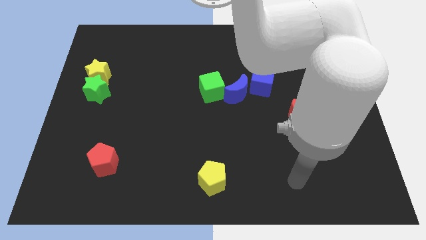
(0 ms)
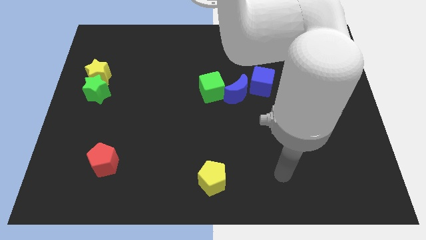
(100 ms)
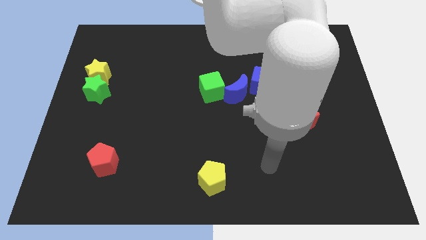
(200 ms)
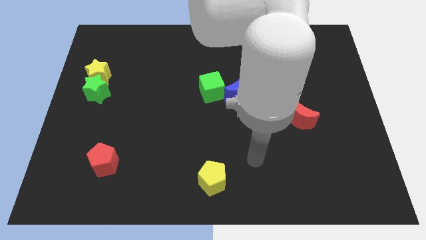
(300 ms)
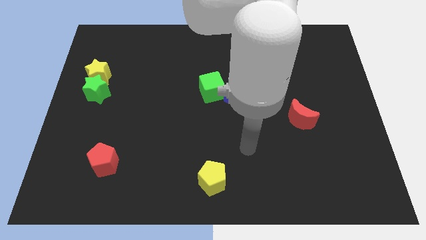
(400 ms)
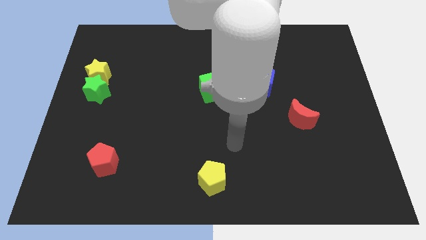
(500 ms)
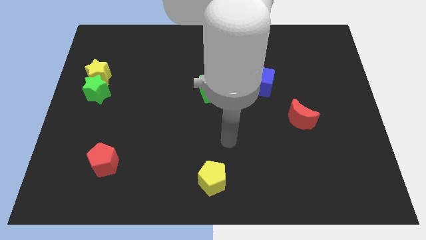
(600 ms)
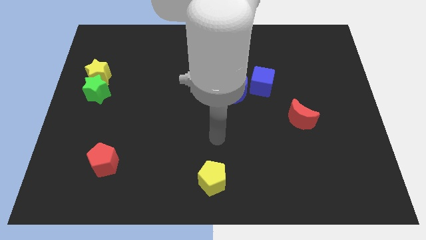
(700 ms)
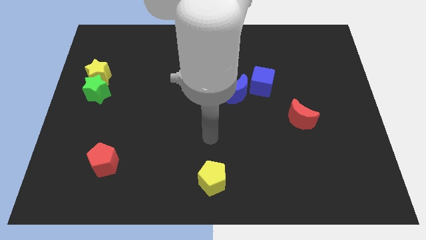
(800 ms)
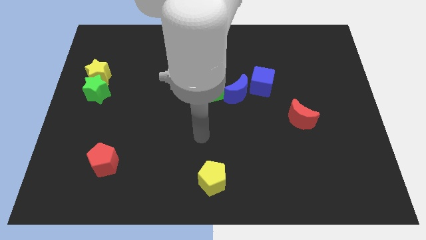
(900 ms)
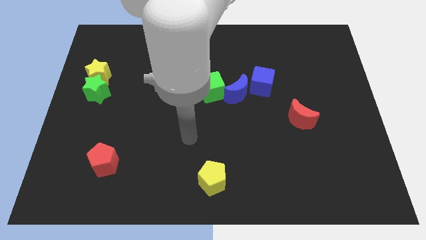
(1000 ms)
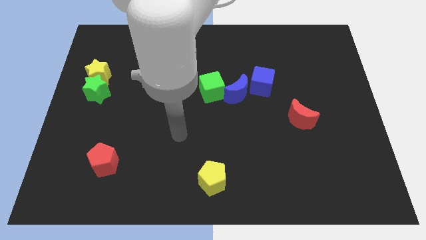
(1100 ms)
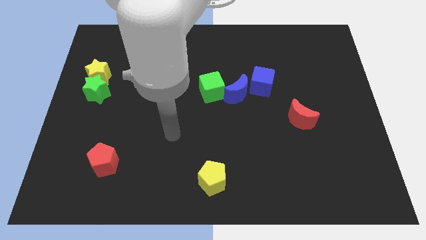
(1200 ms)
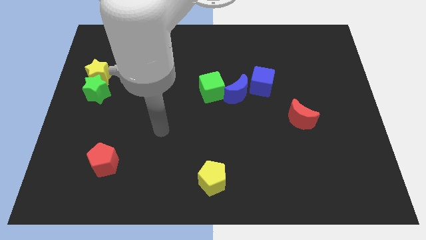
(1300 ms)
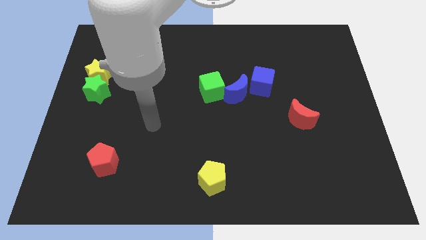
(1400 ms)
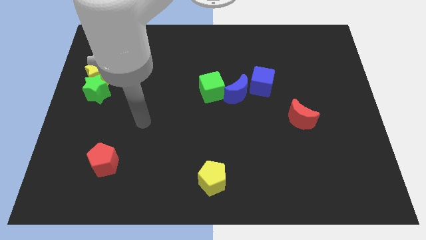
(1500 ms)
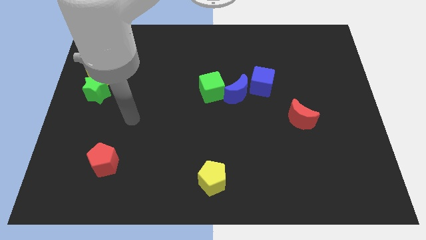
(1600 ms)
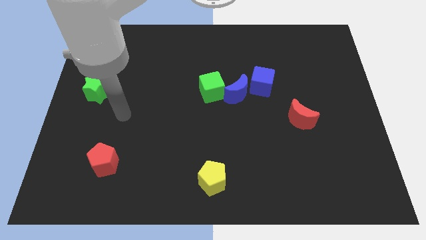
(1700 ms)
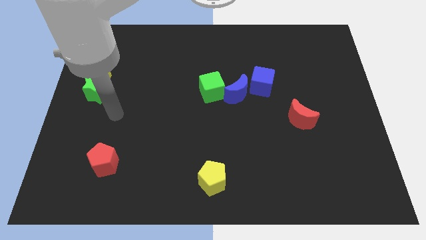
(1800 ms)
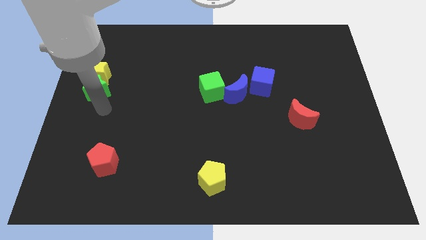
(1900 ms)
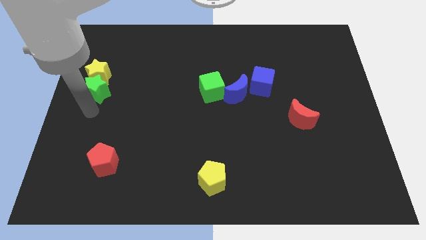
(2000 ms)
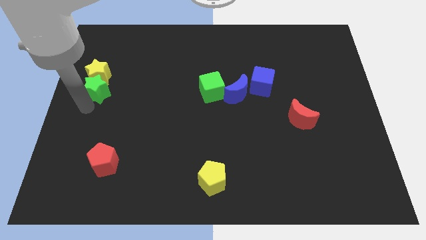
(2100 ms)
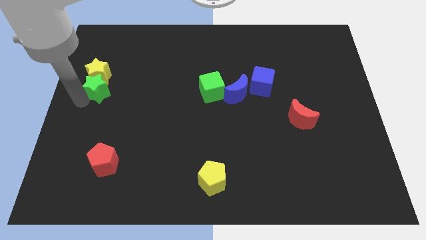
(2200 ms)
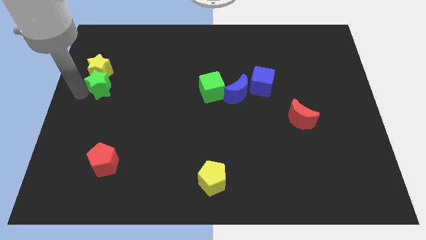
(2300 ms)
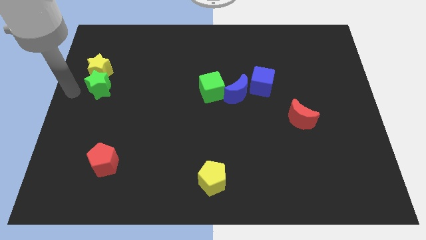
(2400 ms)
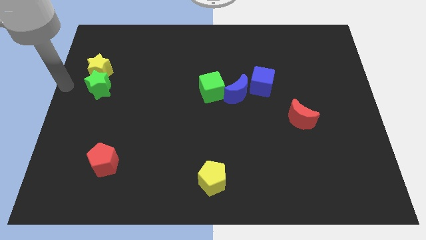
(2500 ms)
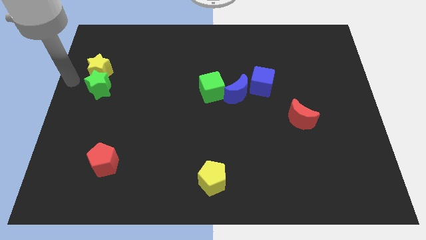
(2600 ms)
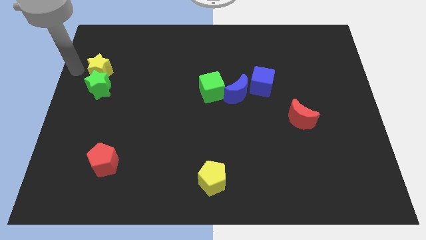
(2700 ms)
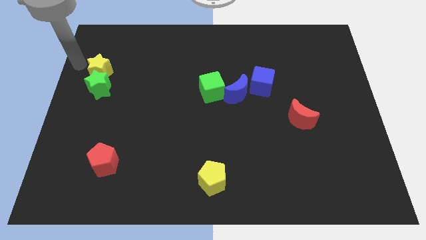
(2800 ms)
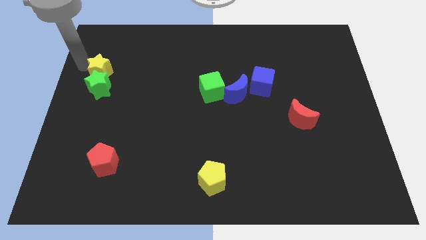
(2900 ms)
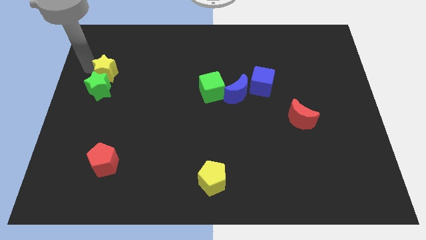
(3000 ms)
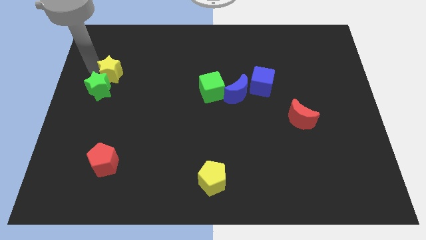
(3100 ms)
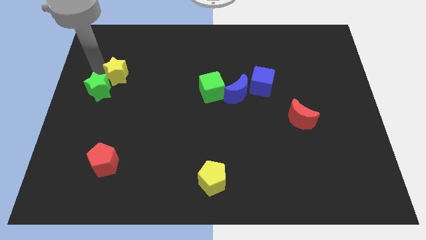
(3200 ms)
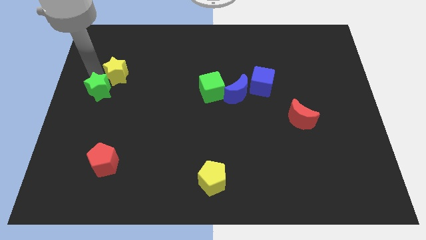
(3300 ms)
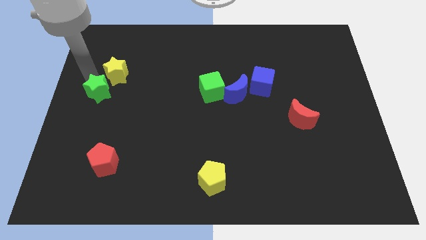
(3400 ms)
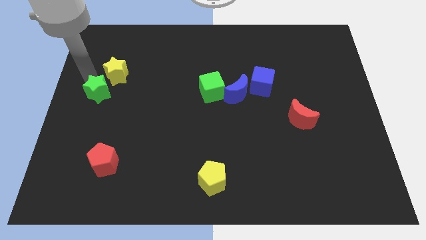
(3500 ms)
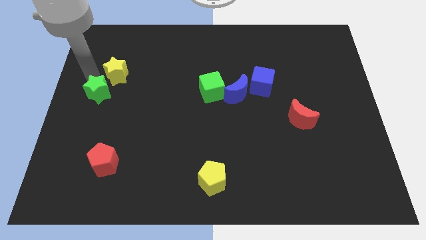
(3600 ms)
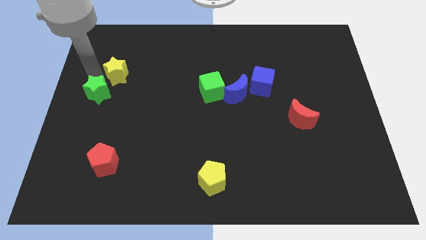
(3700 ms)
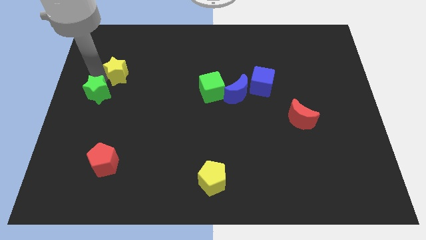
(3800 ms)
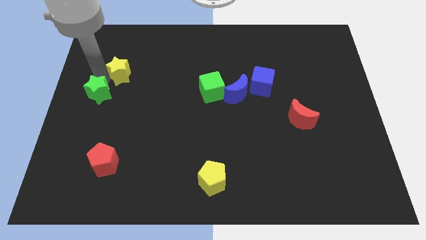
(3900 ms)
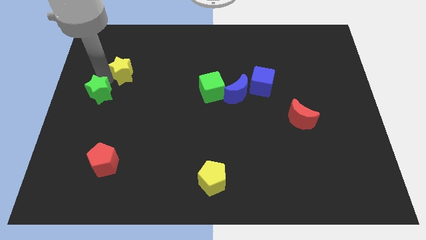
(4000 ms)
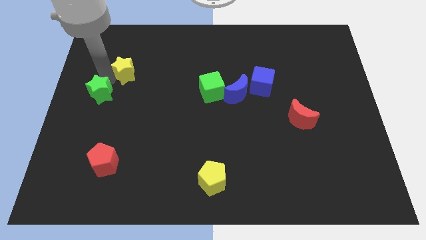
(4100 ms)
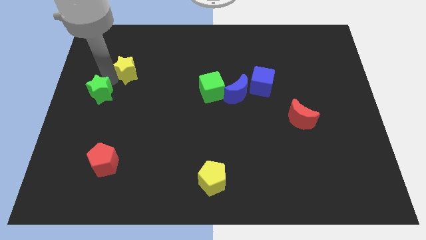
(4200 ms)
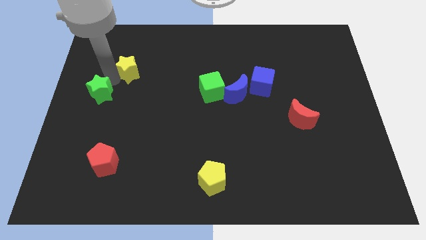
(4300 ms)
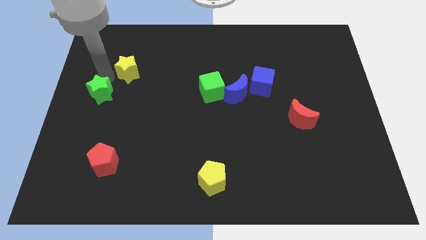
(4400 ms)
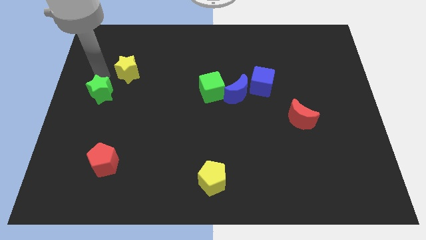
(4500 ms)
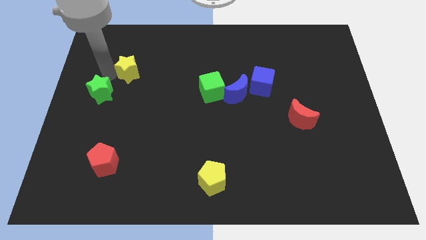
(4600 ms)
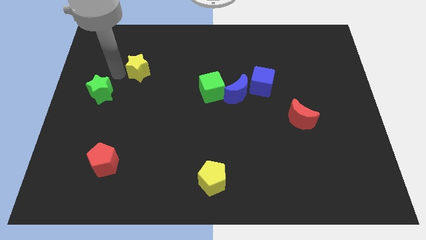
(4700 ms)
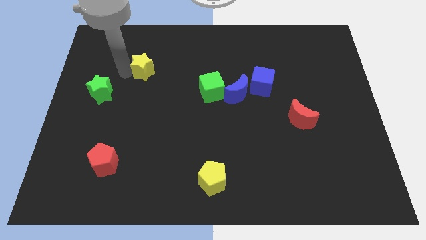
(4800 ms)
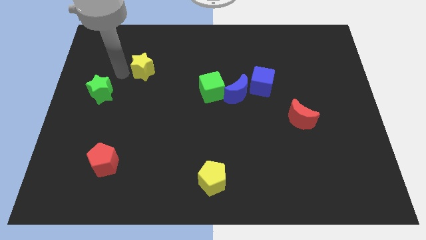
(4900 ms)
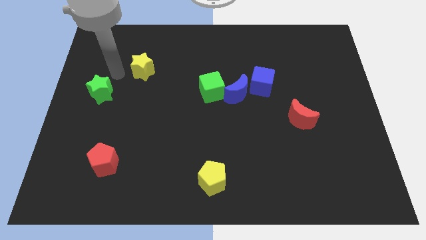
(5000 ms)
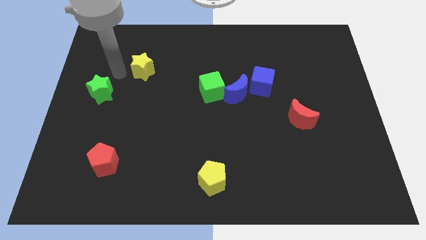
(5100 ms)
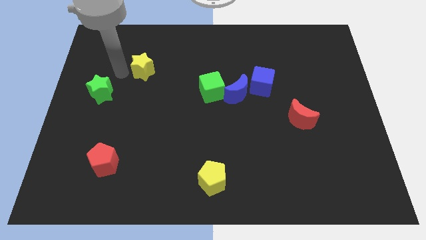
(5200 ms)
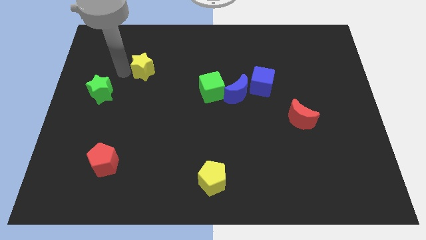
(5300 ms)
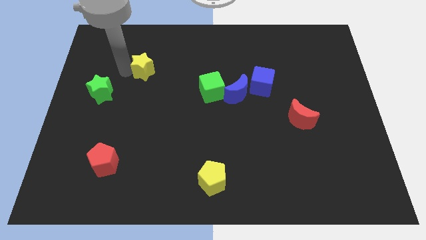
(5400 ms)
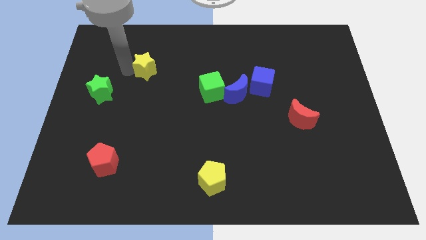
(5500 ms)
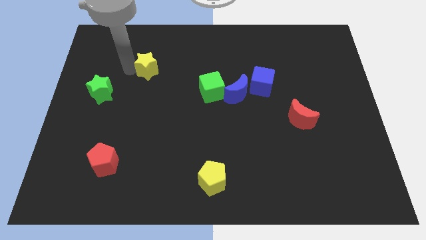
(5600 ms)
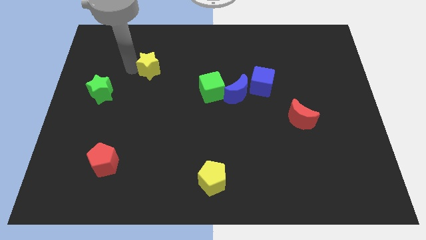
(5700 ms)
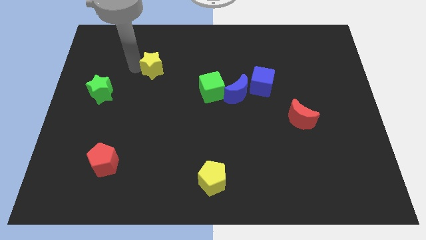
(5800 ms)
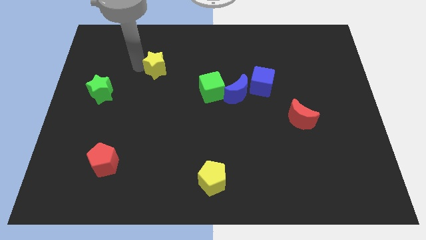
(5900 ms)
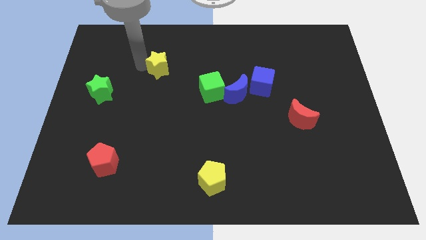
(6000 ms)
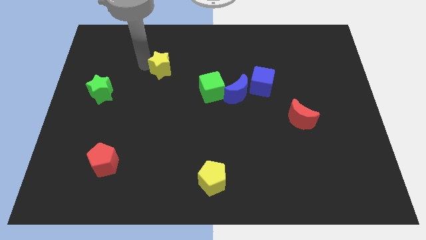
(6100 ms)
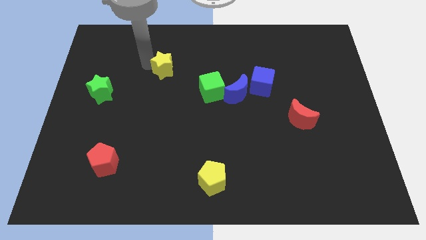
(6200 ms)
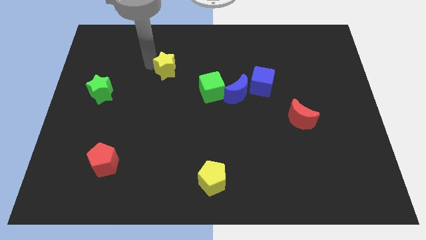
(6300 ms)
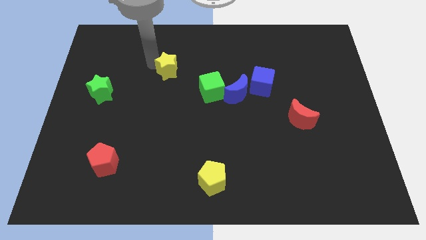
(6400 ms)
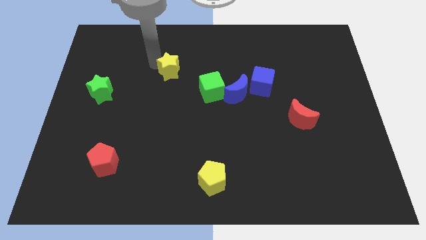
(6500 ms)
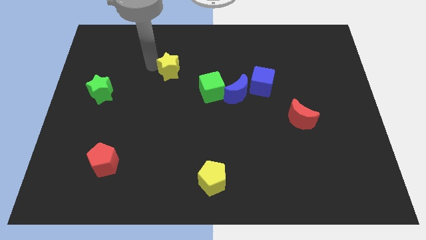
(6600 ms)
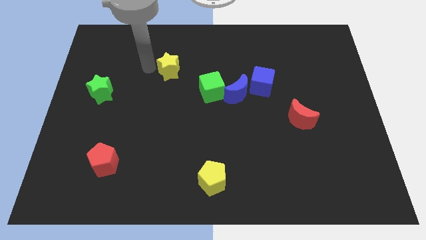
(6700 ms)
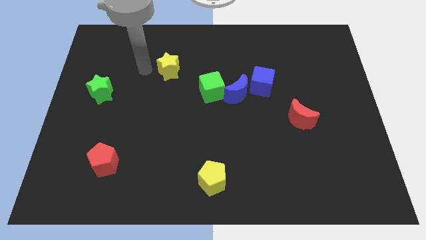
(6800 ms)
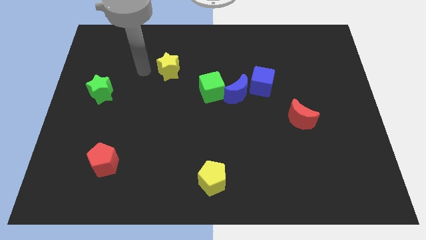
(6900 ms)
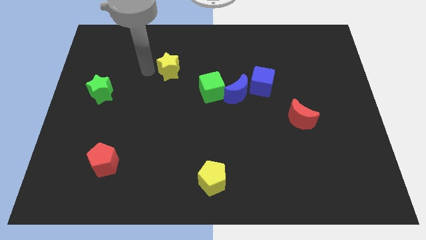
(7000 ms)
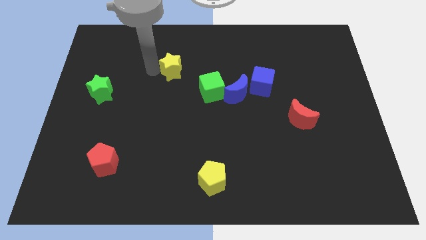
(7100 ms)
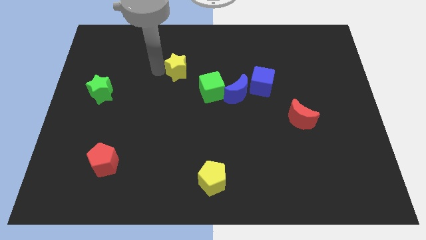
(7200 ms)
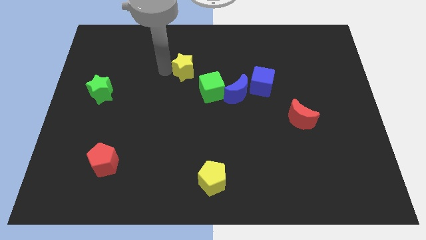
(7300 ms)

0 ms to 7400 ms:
push the yellow star to the right

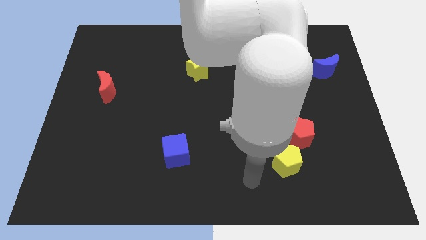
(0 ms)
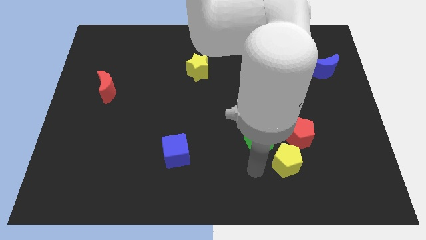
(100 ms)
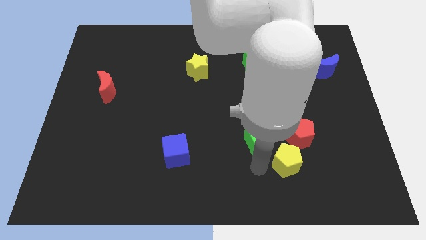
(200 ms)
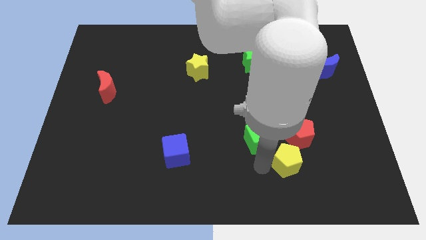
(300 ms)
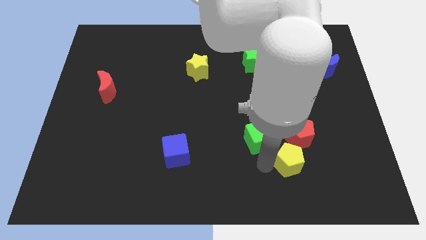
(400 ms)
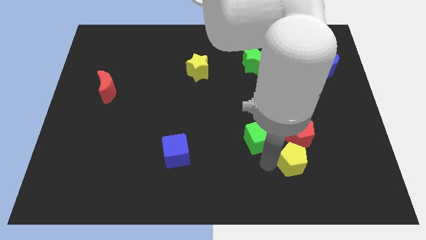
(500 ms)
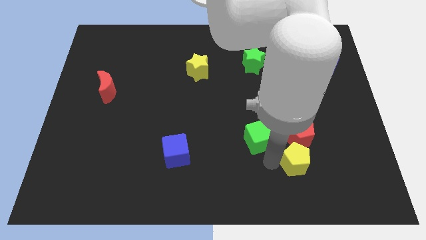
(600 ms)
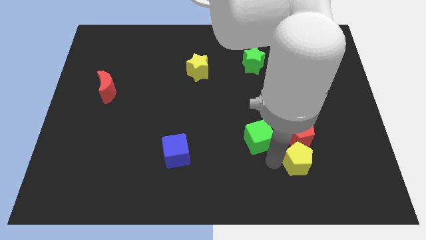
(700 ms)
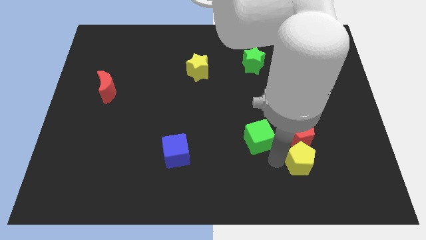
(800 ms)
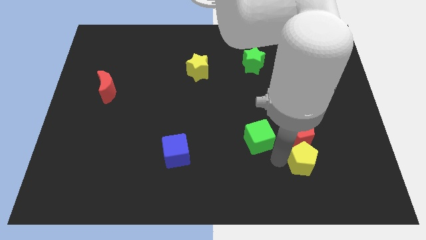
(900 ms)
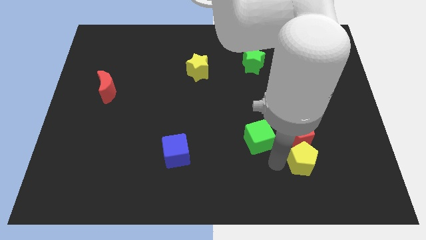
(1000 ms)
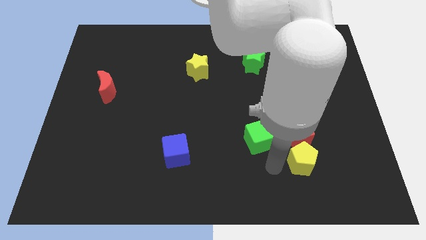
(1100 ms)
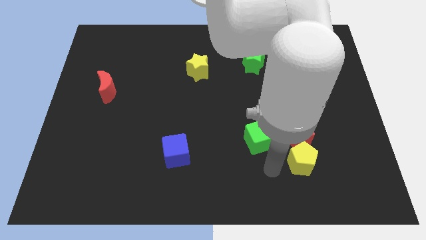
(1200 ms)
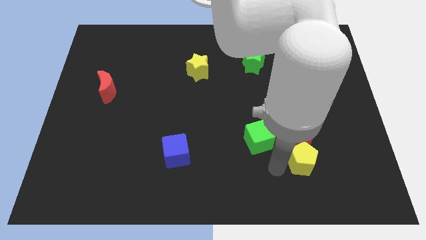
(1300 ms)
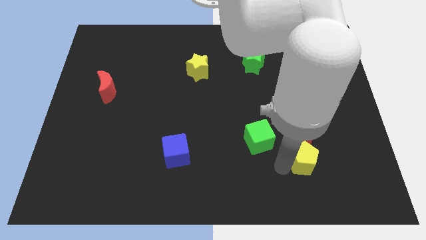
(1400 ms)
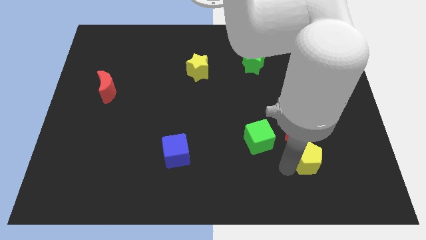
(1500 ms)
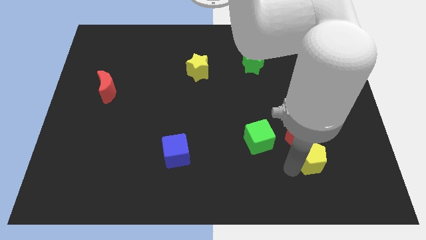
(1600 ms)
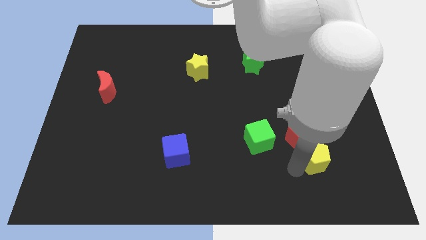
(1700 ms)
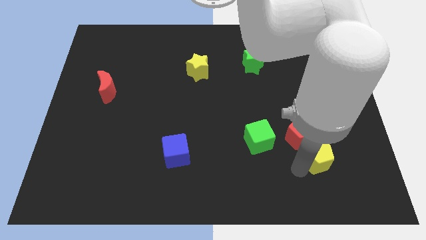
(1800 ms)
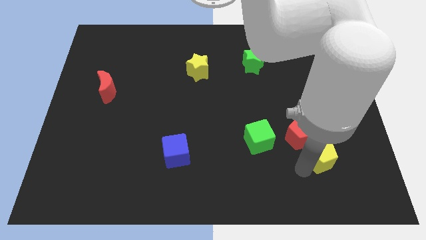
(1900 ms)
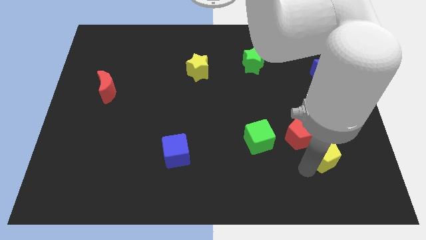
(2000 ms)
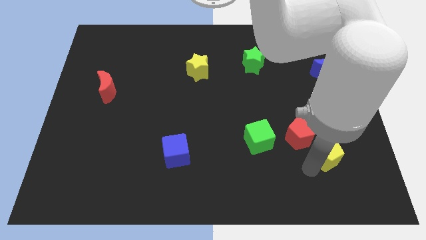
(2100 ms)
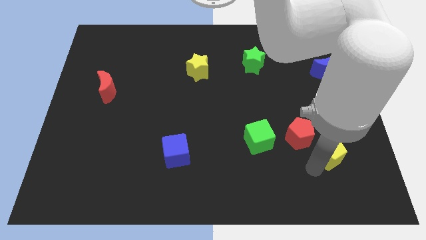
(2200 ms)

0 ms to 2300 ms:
move the yellow pentagon a bit upwards and then right
